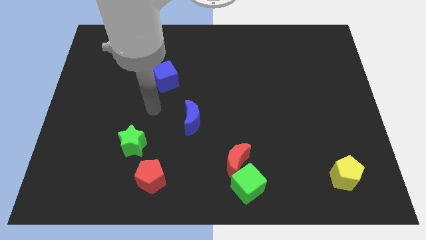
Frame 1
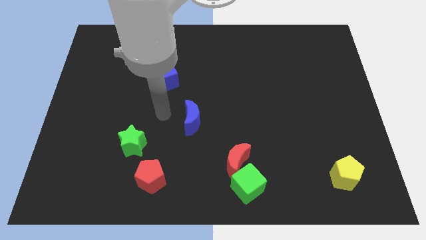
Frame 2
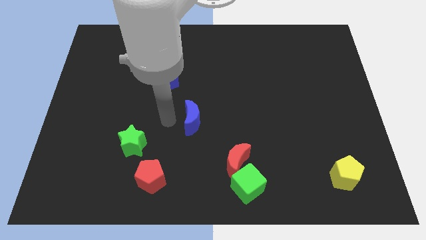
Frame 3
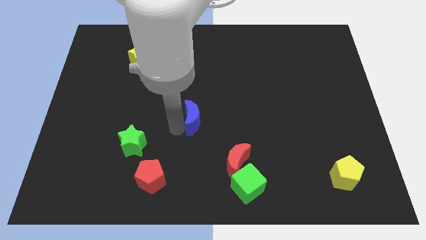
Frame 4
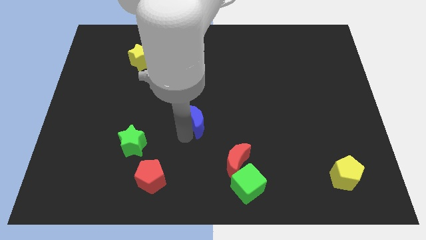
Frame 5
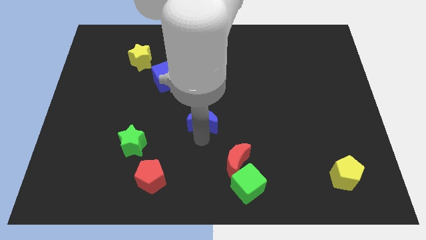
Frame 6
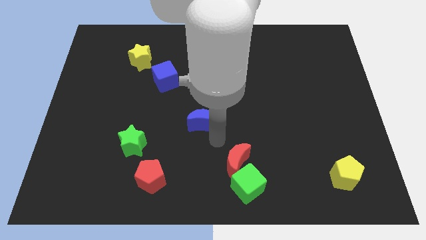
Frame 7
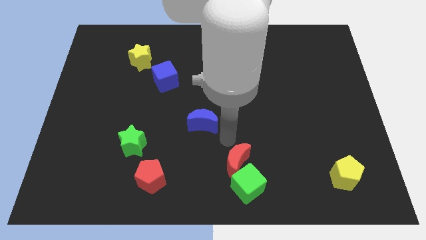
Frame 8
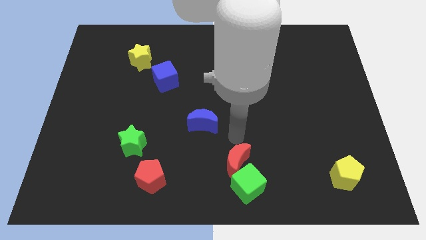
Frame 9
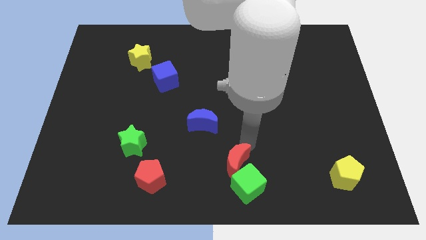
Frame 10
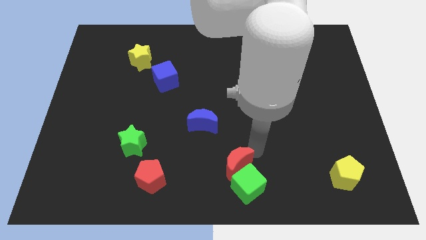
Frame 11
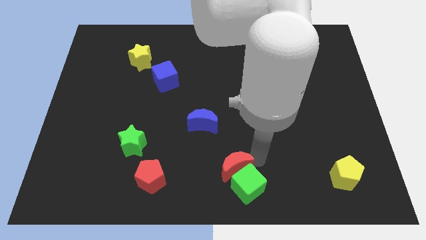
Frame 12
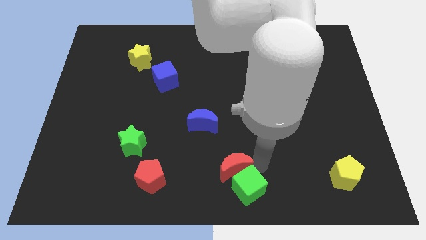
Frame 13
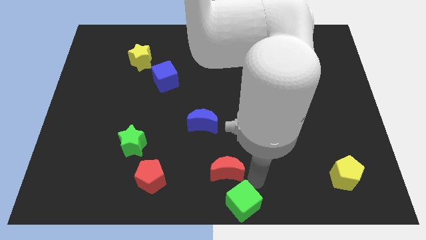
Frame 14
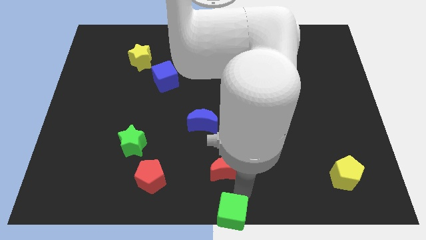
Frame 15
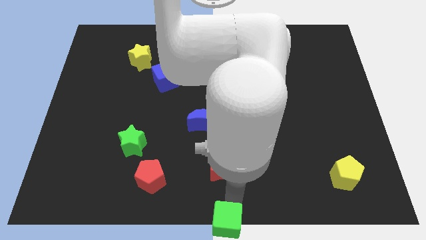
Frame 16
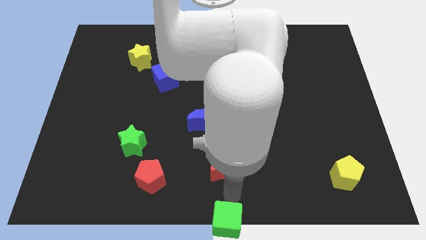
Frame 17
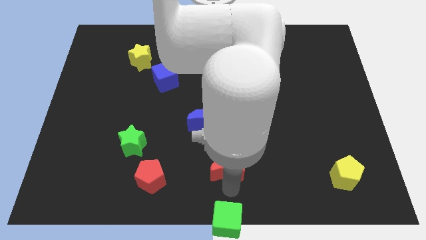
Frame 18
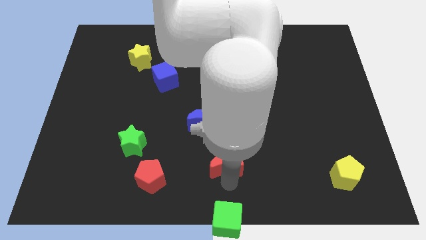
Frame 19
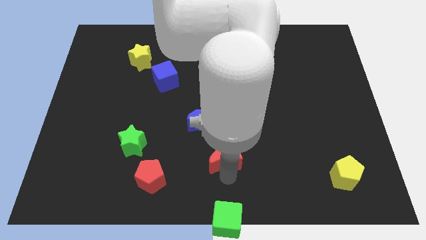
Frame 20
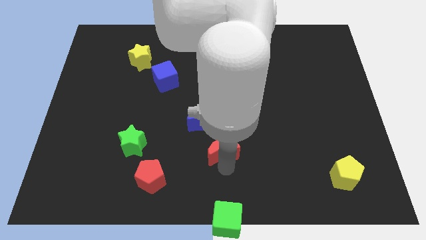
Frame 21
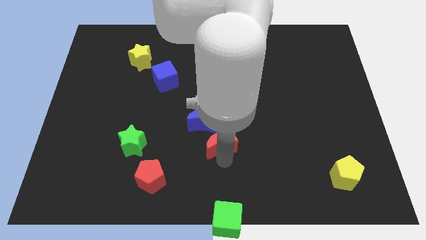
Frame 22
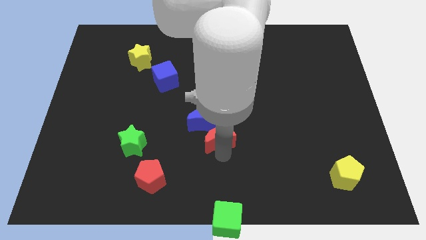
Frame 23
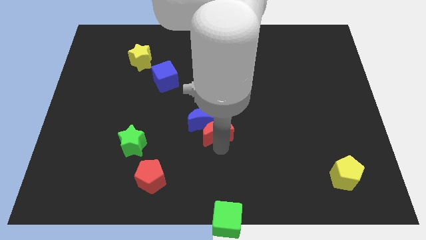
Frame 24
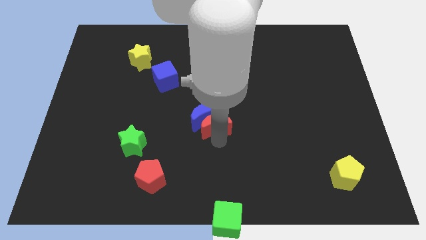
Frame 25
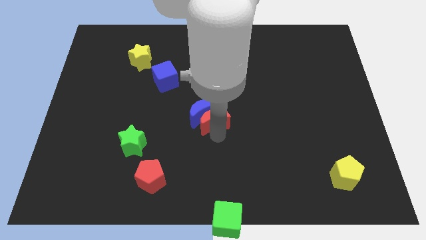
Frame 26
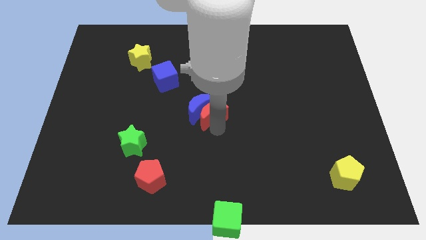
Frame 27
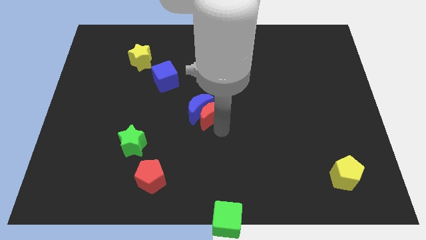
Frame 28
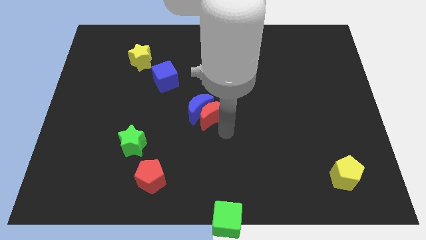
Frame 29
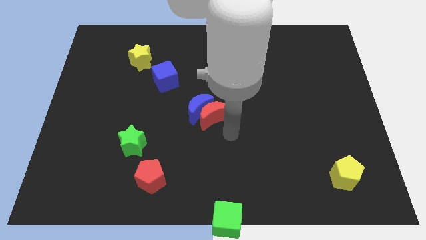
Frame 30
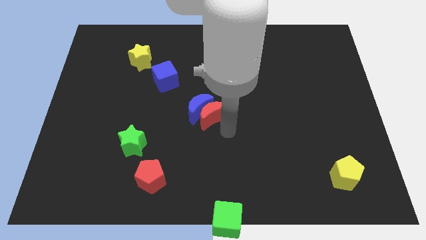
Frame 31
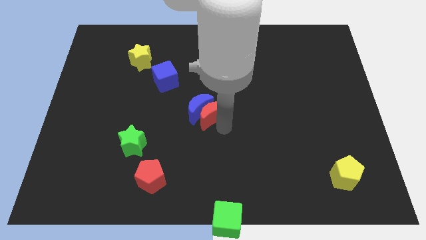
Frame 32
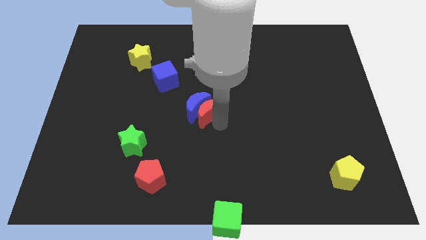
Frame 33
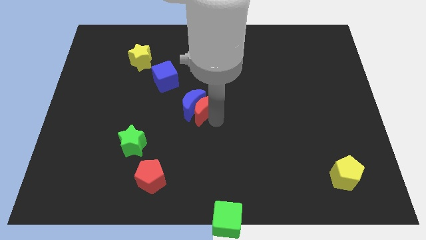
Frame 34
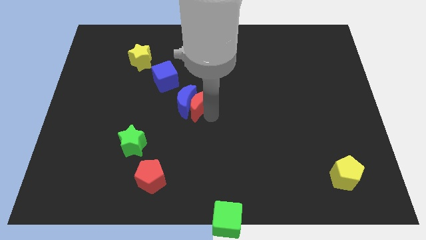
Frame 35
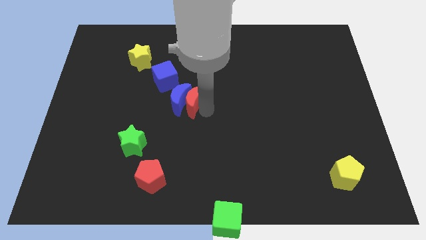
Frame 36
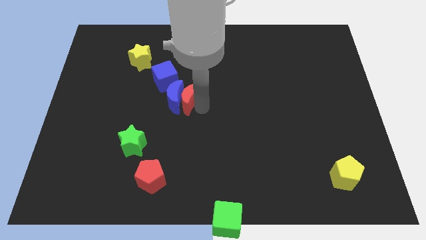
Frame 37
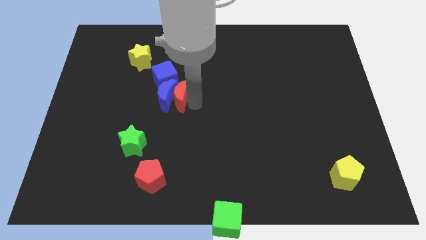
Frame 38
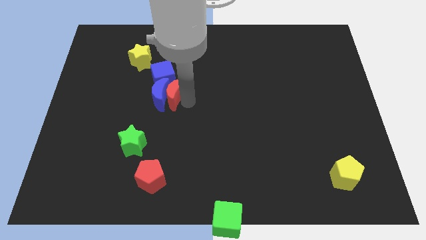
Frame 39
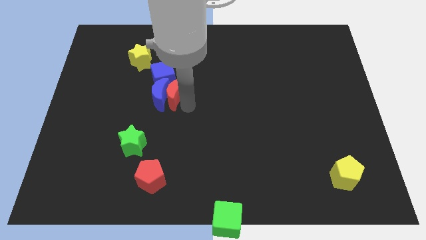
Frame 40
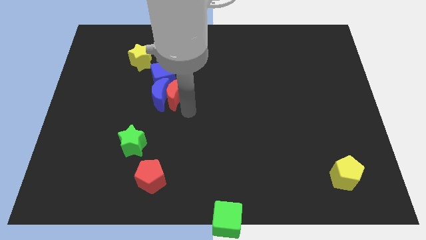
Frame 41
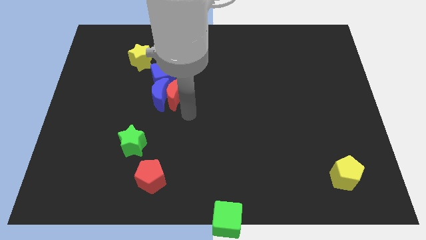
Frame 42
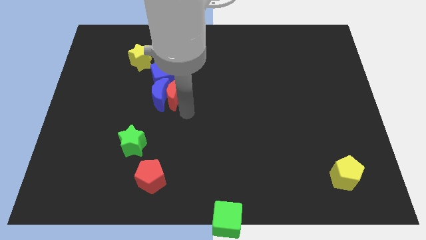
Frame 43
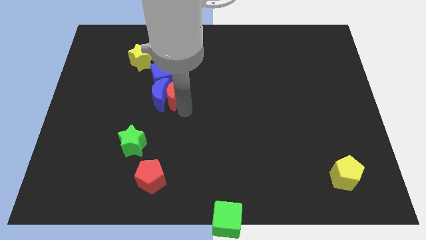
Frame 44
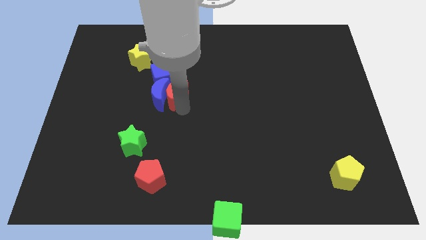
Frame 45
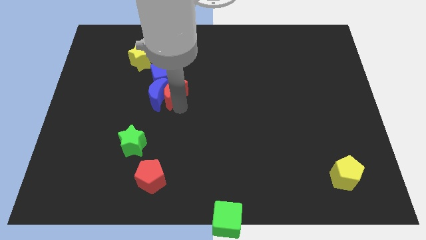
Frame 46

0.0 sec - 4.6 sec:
move the red moon to the blue cube

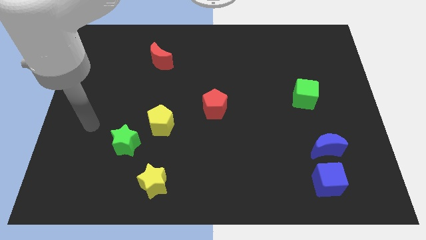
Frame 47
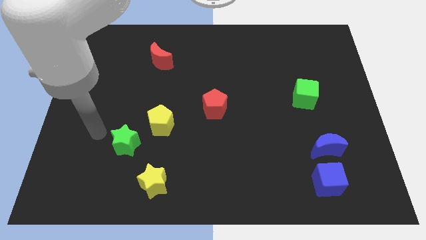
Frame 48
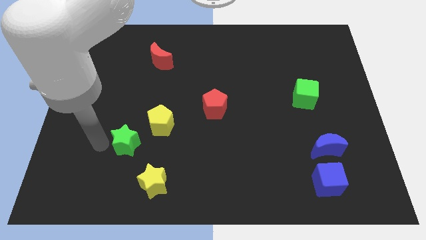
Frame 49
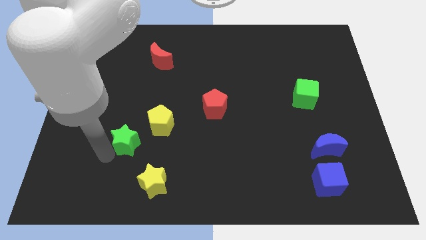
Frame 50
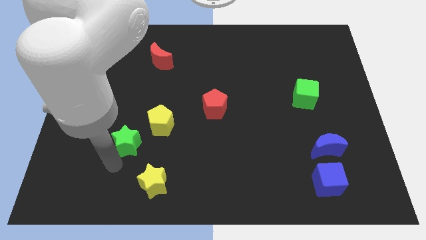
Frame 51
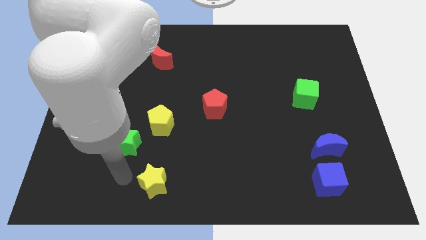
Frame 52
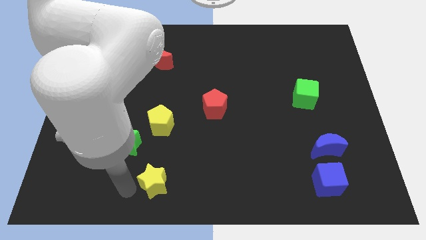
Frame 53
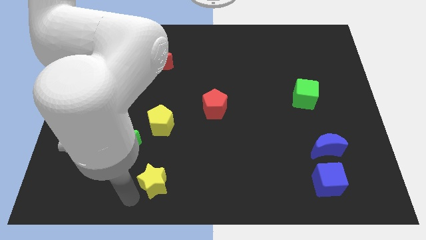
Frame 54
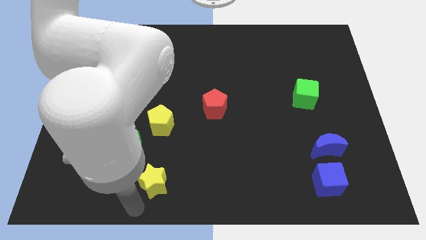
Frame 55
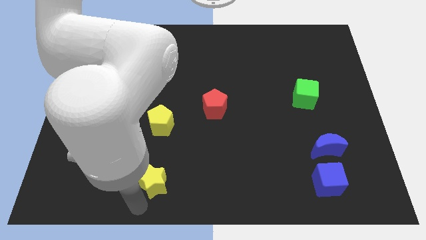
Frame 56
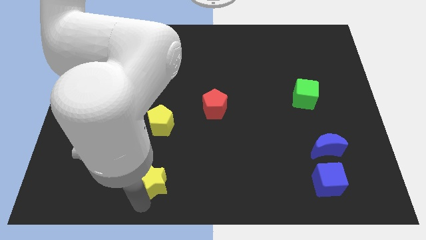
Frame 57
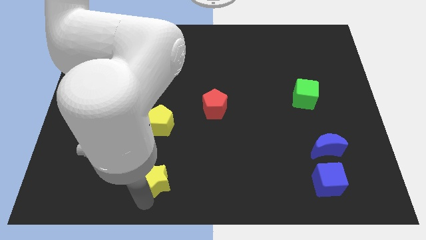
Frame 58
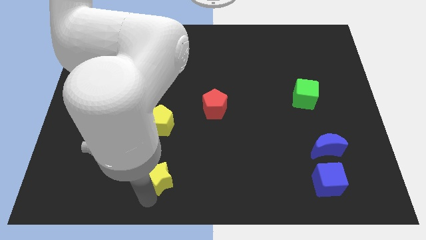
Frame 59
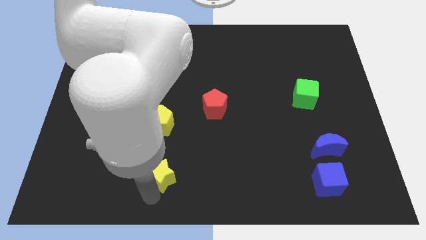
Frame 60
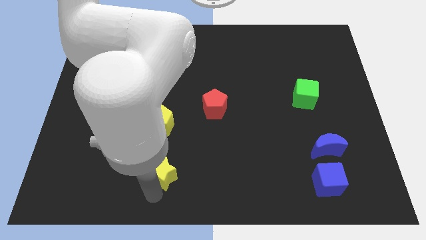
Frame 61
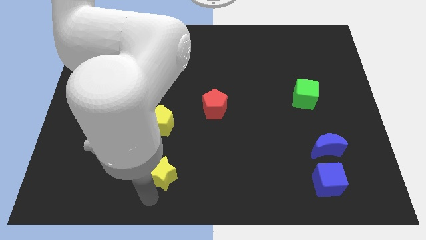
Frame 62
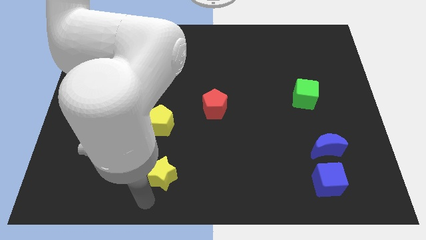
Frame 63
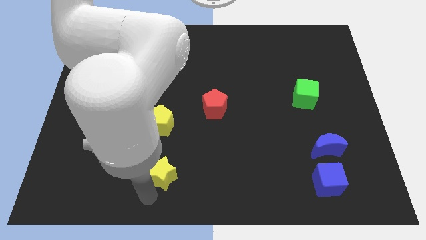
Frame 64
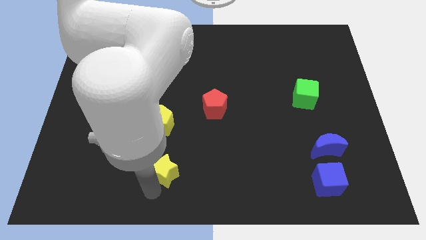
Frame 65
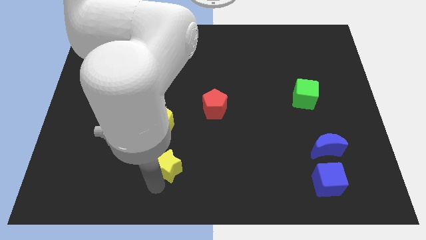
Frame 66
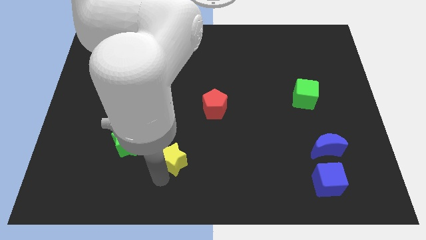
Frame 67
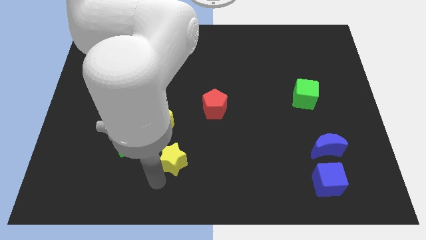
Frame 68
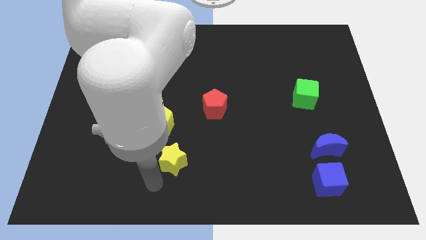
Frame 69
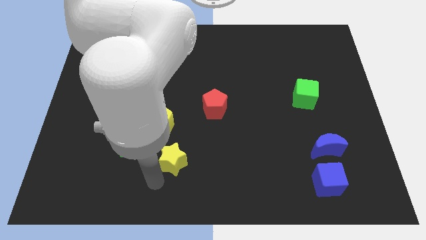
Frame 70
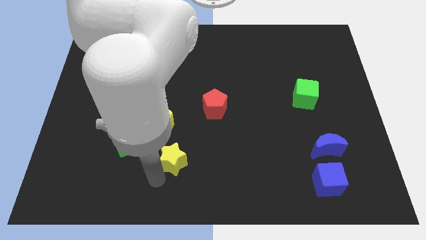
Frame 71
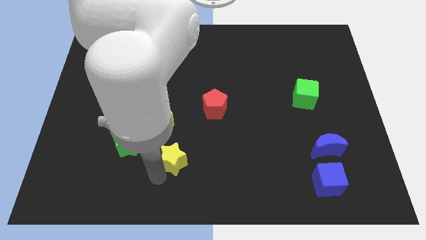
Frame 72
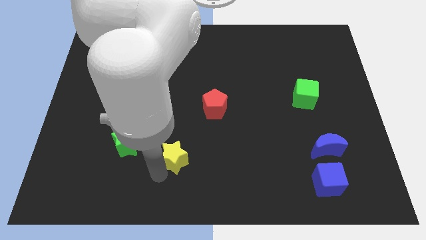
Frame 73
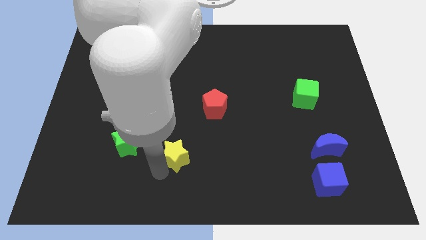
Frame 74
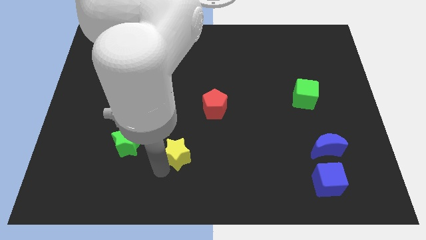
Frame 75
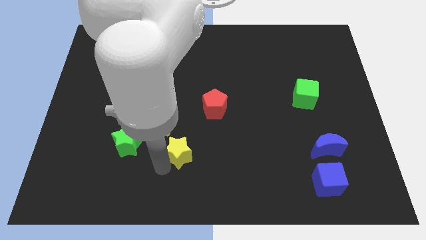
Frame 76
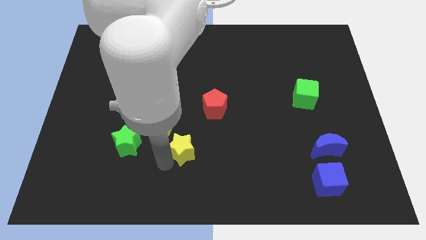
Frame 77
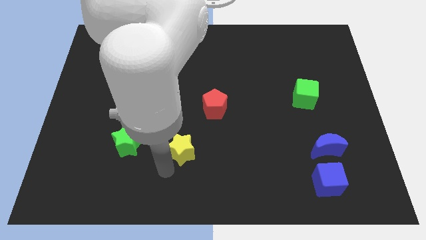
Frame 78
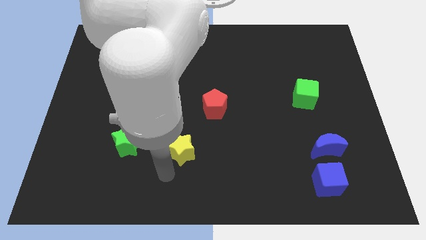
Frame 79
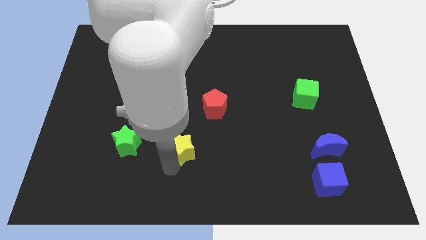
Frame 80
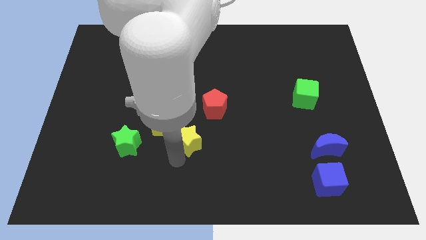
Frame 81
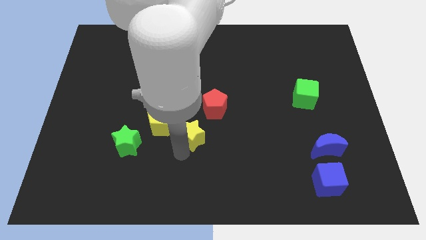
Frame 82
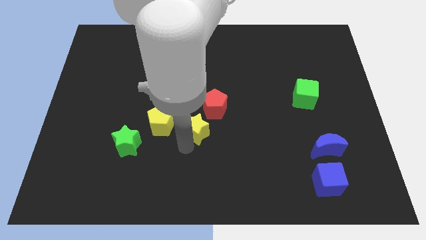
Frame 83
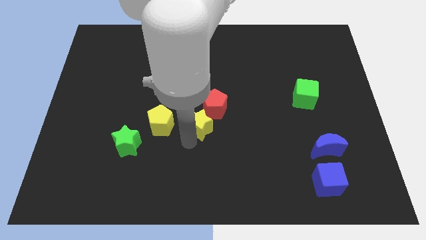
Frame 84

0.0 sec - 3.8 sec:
slide the yellow star close to the red pentagon
